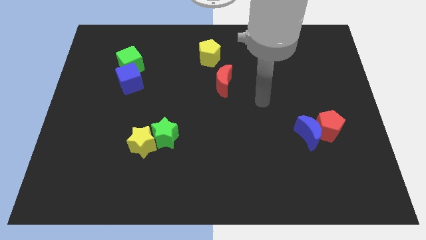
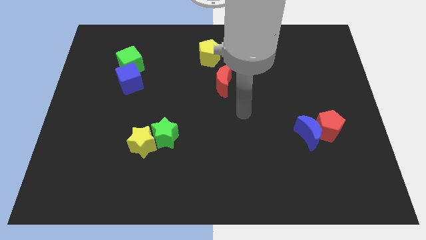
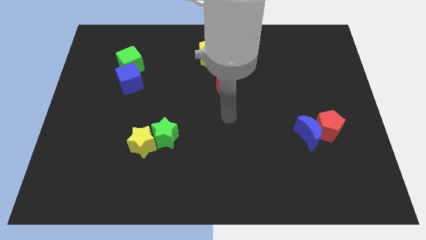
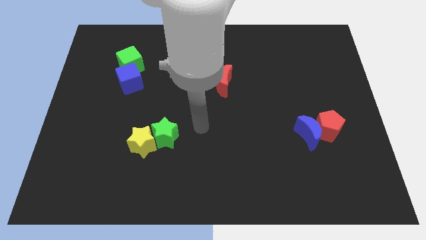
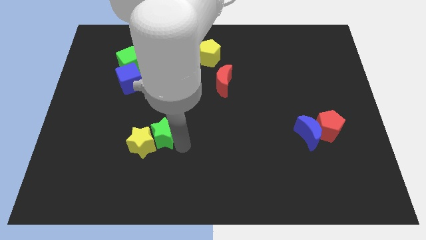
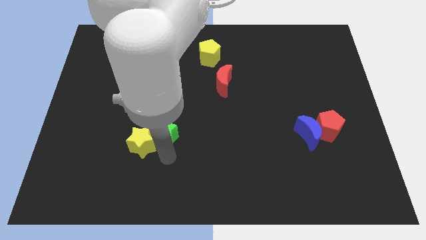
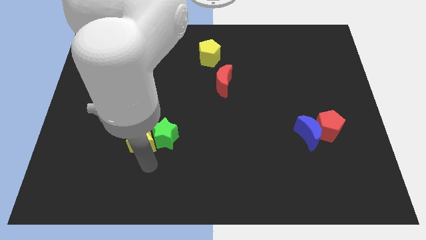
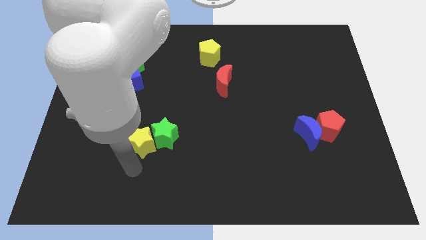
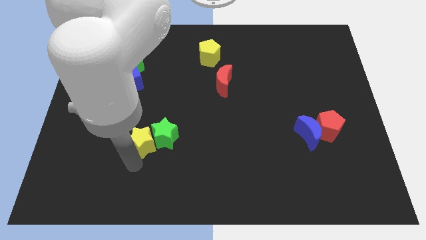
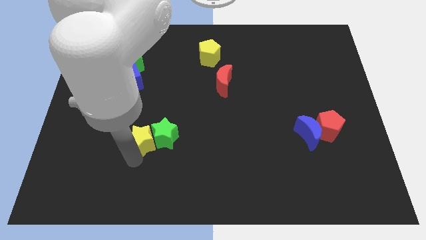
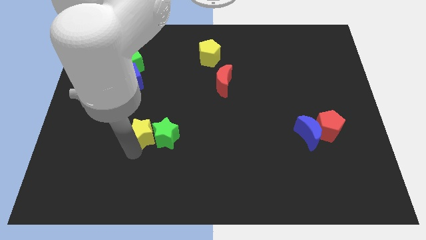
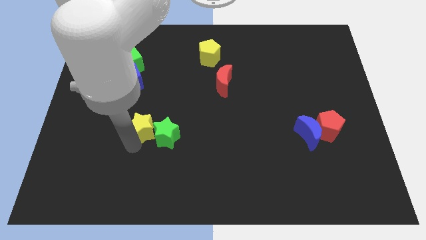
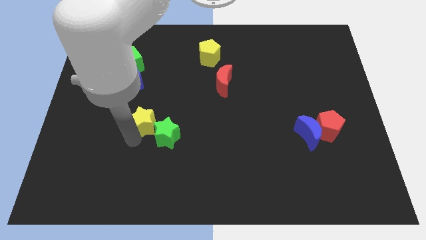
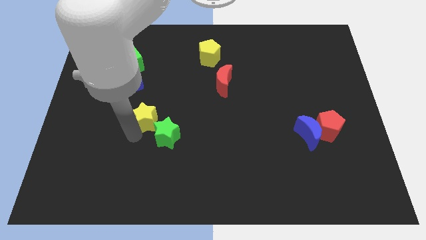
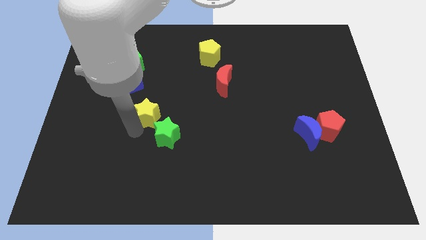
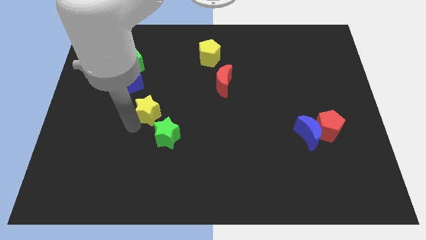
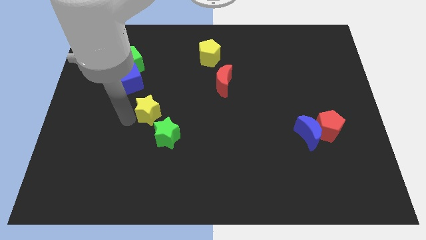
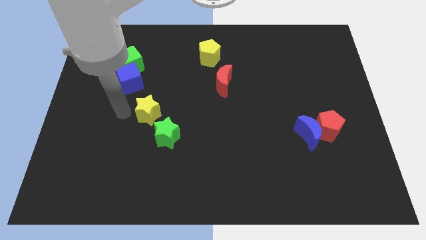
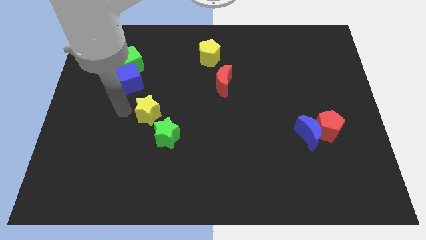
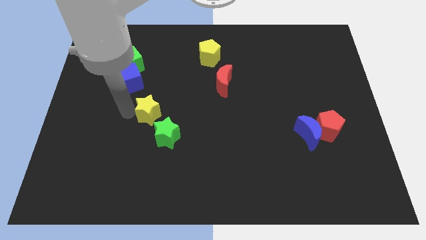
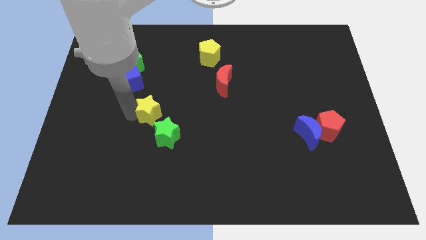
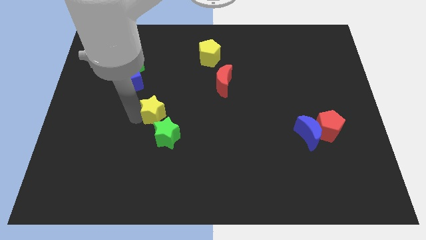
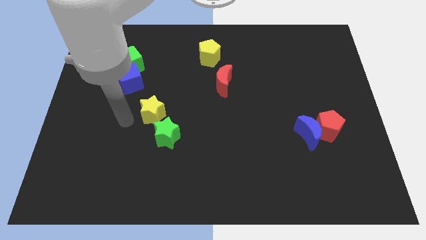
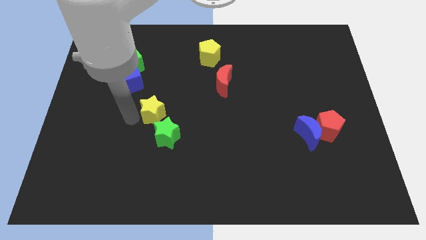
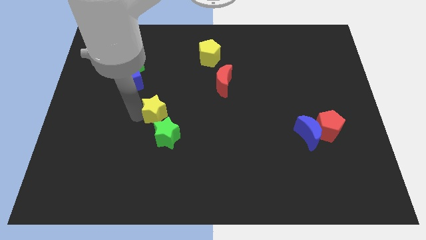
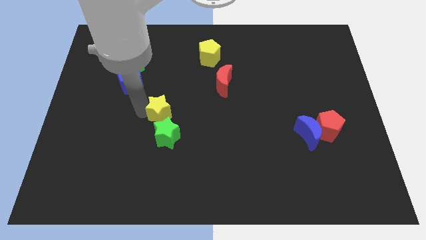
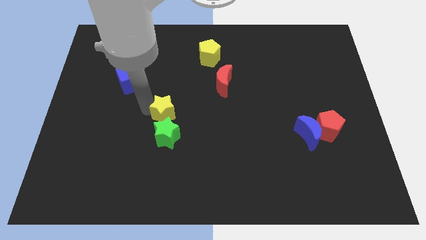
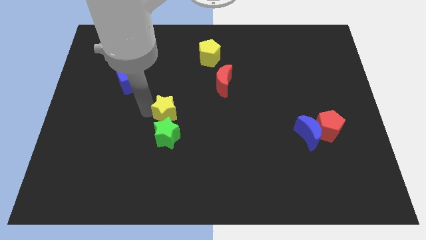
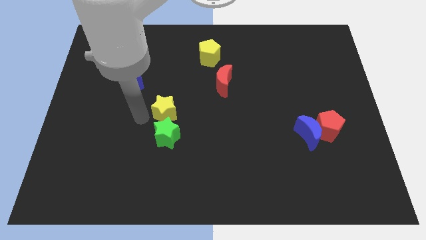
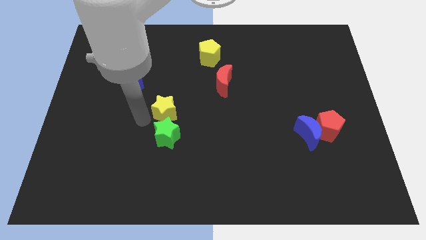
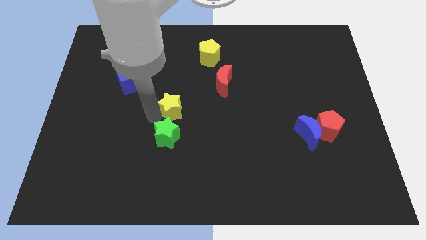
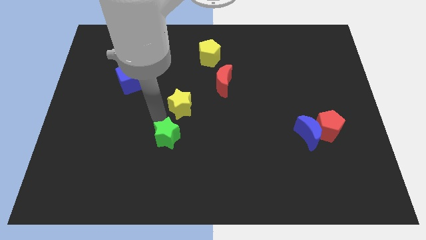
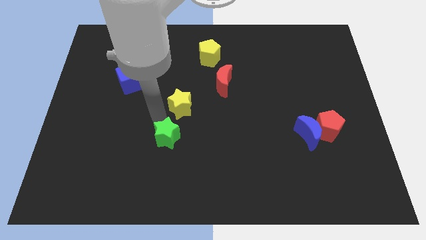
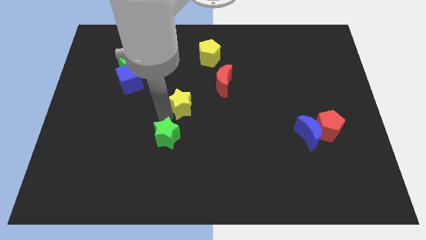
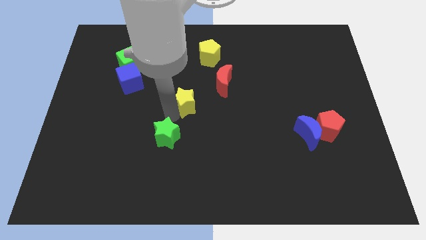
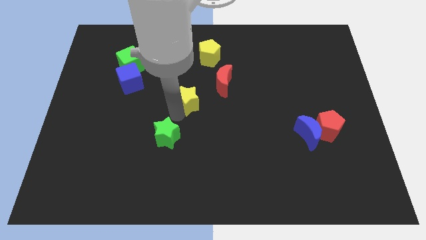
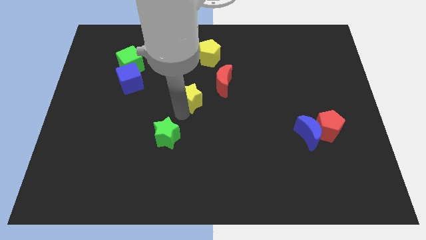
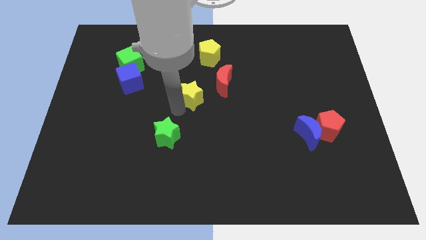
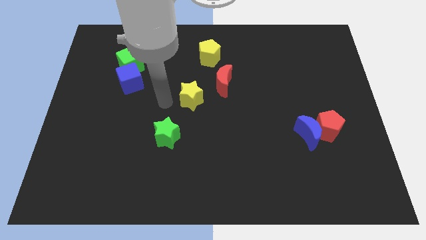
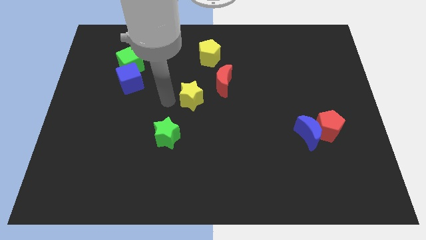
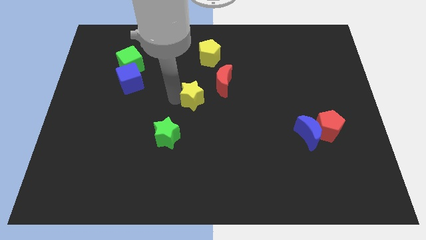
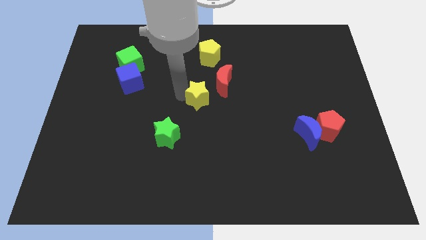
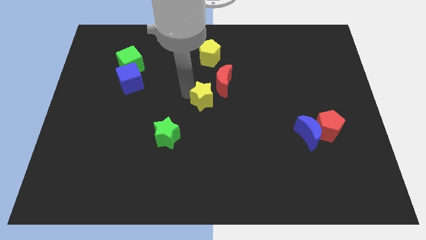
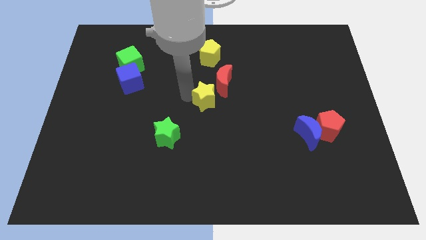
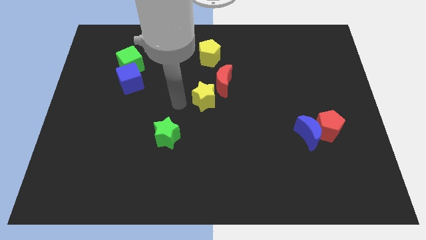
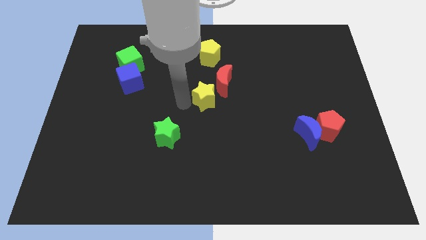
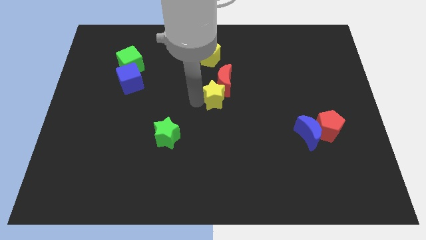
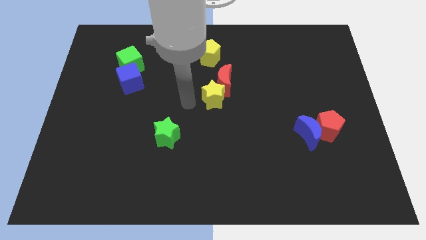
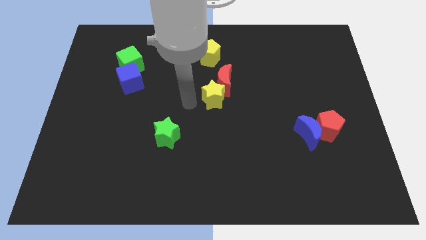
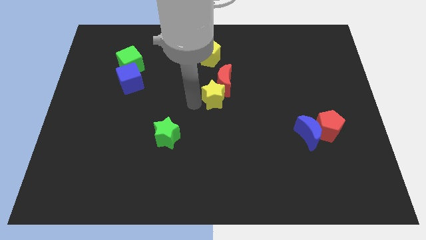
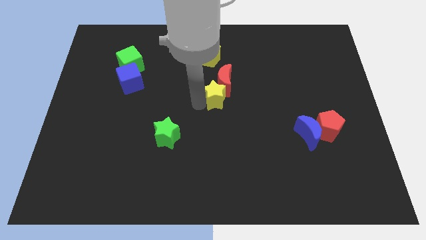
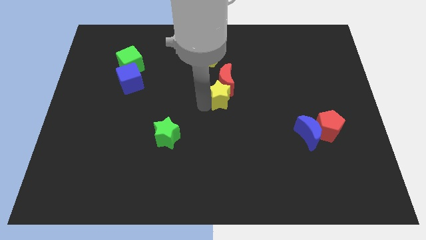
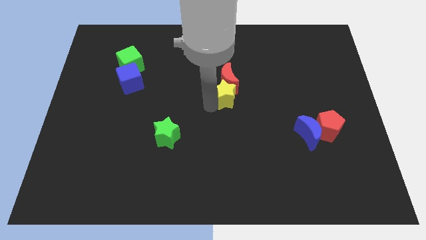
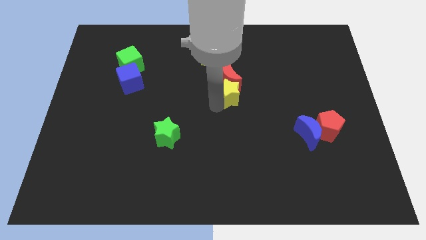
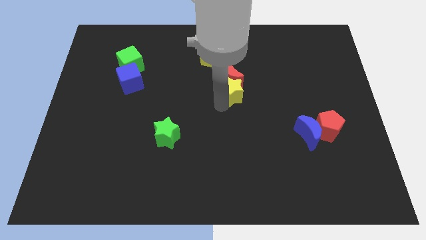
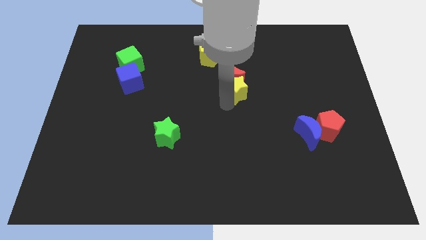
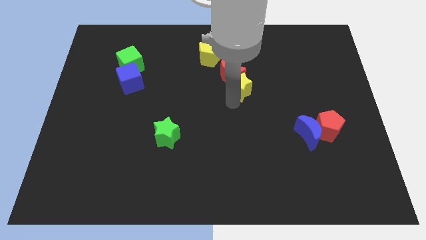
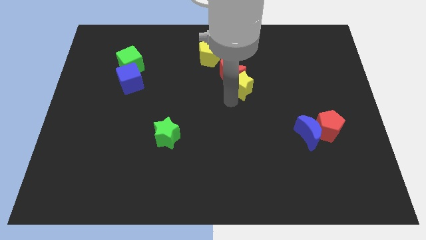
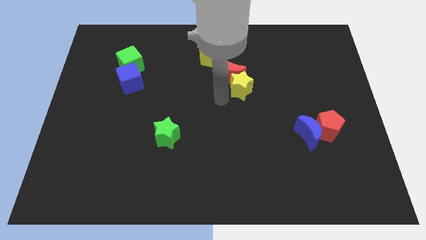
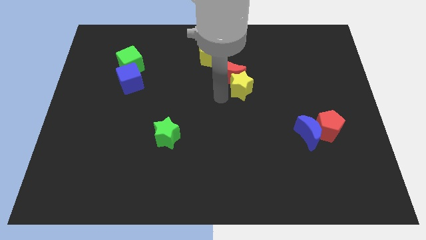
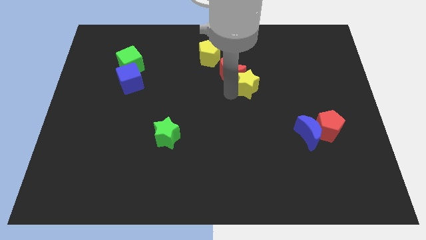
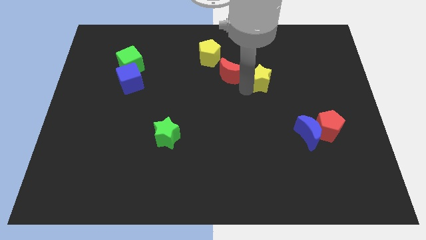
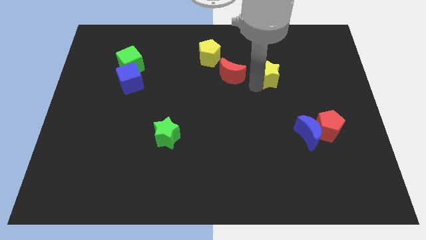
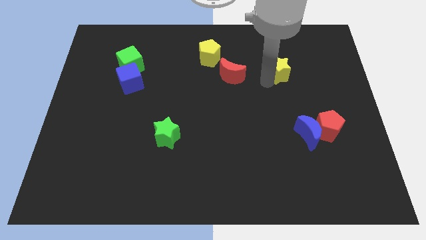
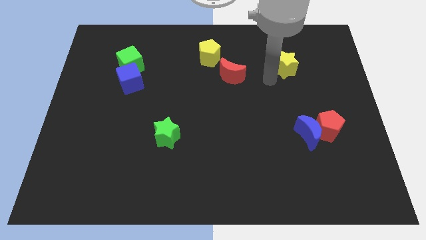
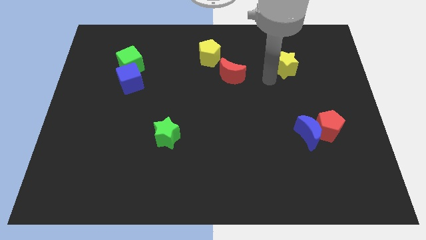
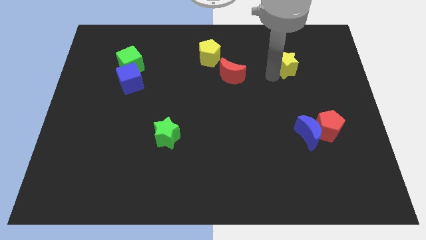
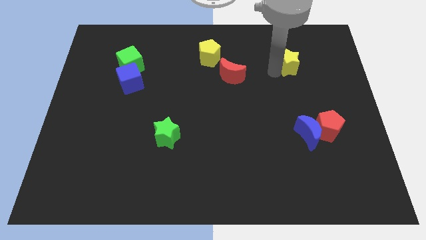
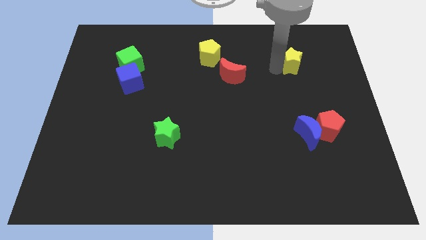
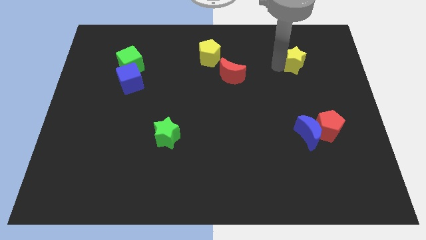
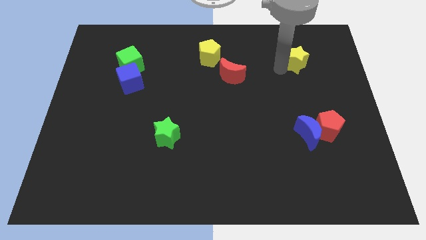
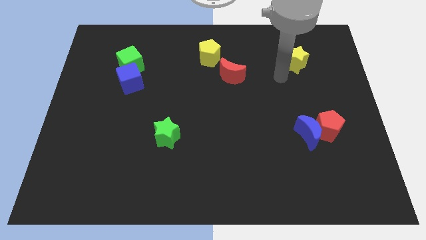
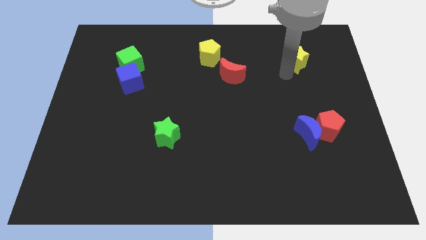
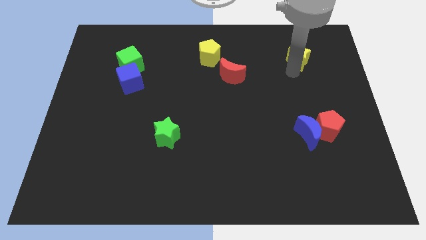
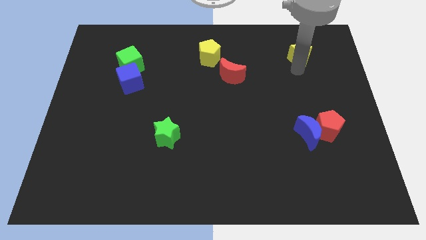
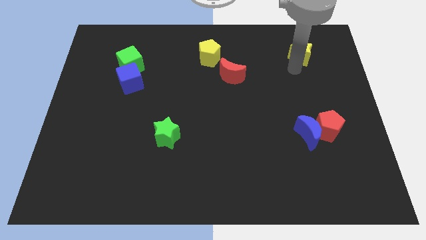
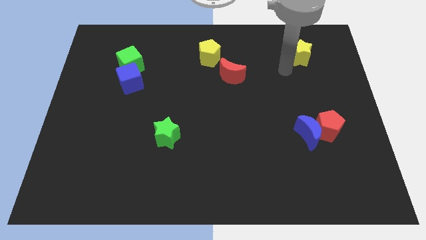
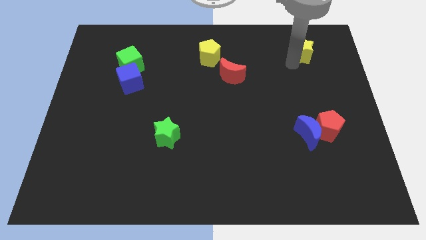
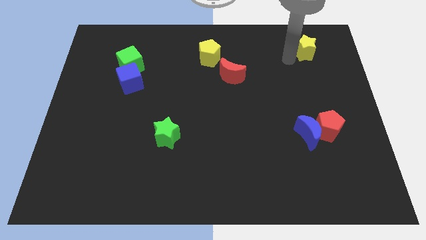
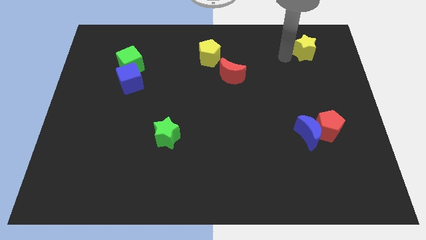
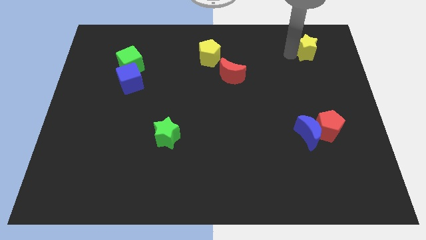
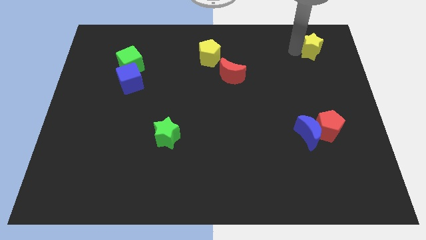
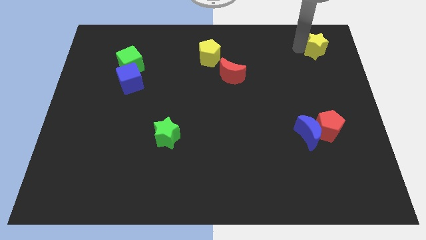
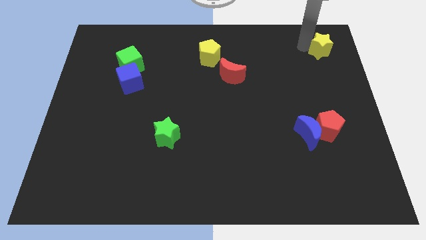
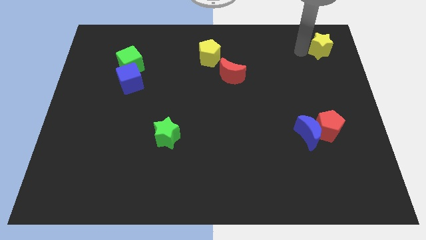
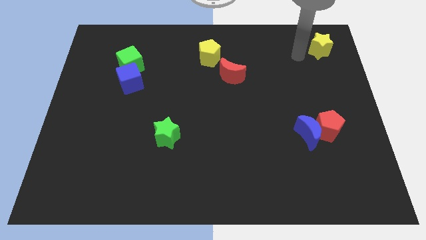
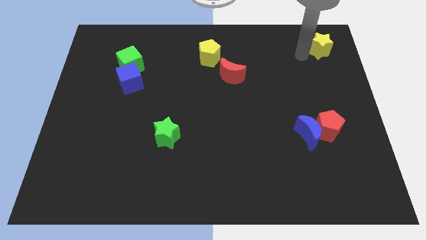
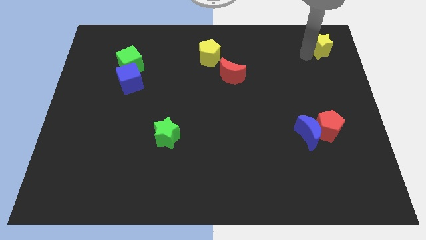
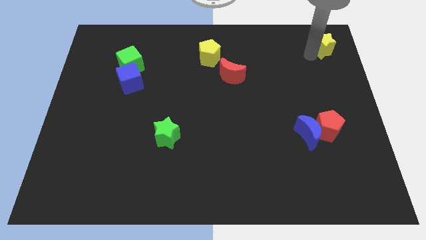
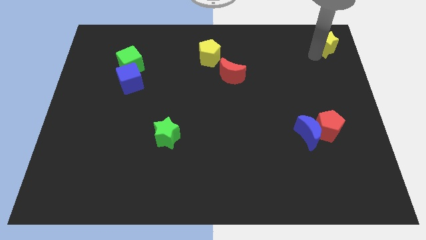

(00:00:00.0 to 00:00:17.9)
slide the yellow star to the top right
